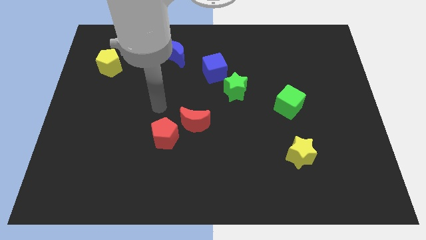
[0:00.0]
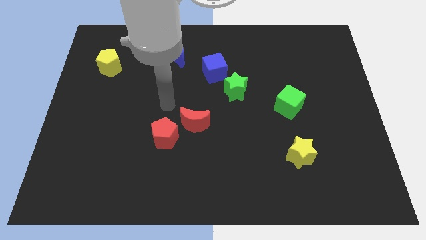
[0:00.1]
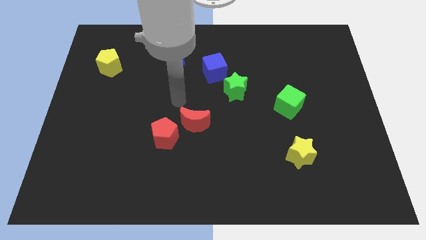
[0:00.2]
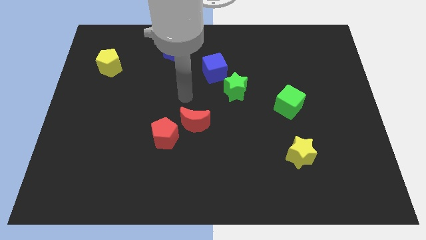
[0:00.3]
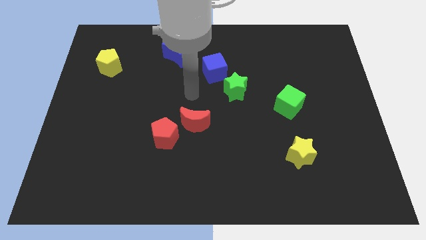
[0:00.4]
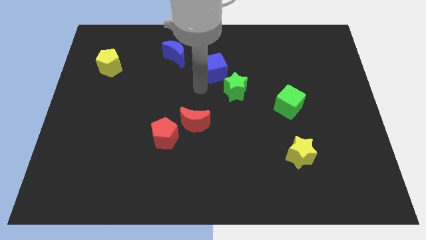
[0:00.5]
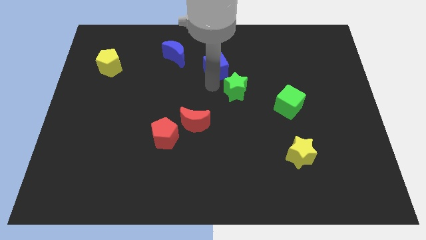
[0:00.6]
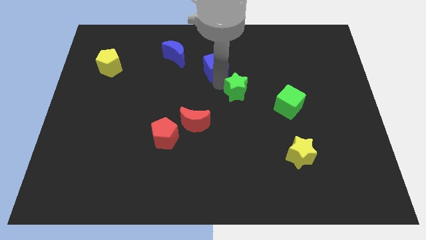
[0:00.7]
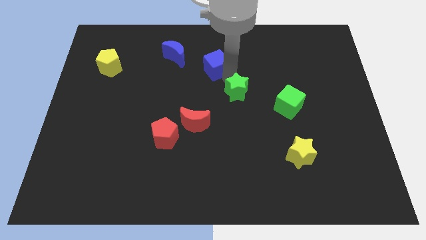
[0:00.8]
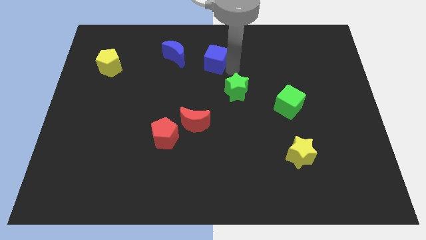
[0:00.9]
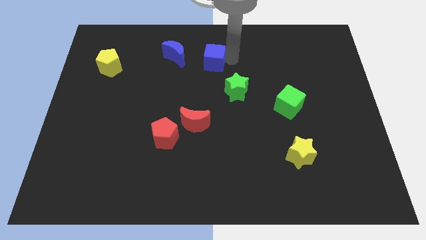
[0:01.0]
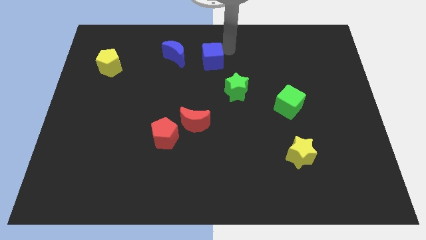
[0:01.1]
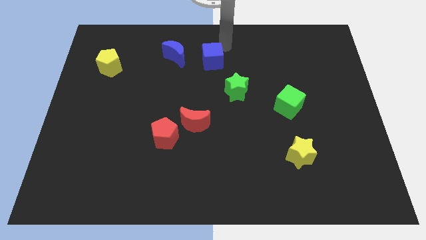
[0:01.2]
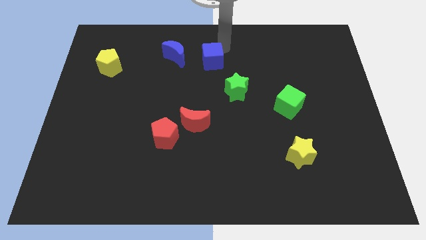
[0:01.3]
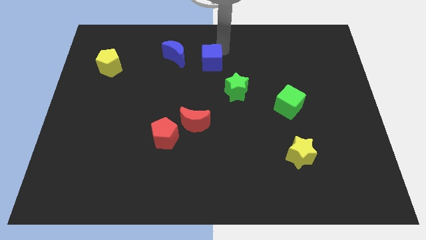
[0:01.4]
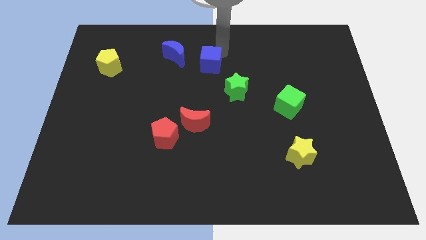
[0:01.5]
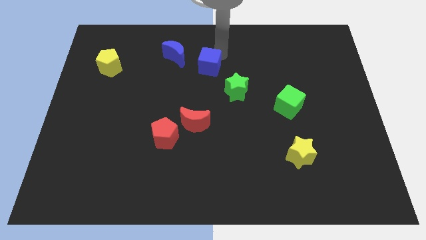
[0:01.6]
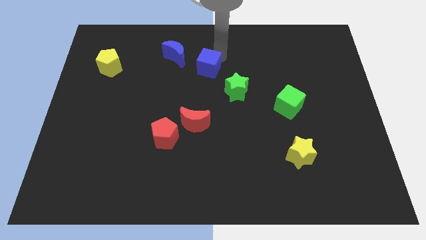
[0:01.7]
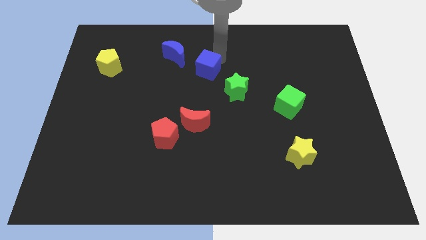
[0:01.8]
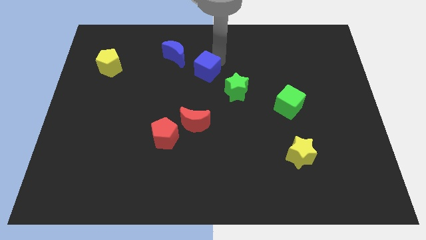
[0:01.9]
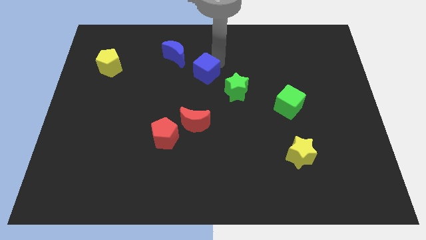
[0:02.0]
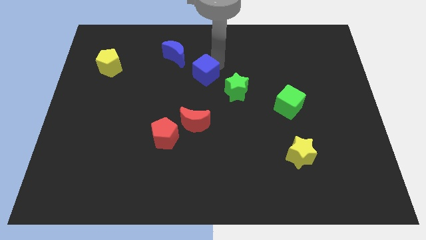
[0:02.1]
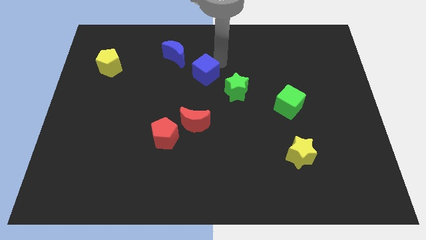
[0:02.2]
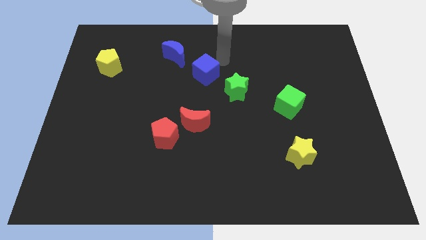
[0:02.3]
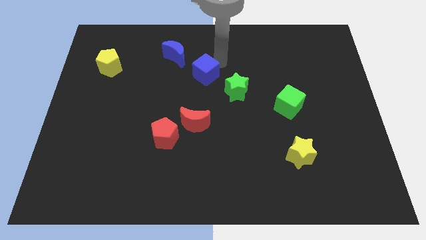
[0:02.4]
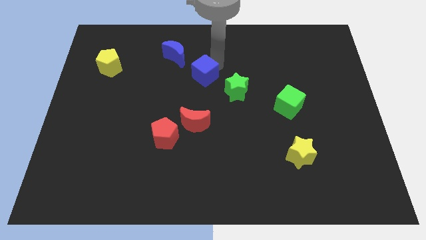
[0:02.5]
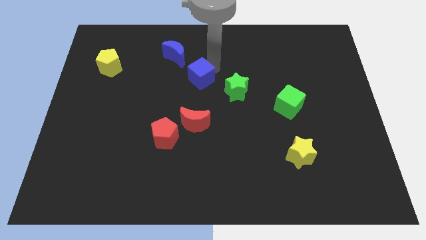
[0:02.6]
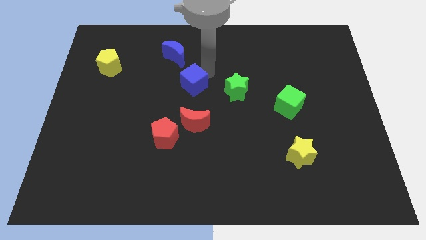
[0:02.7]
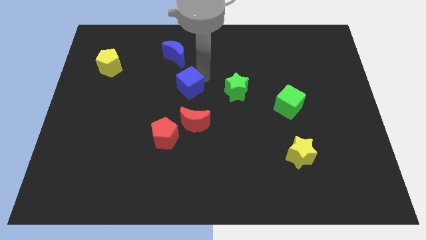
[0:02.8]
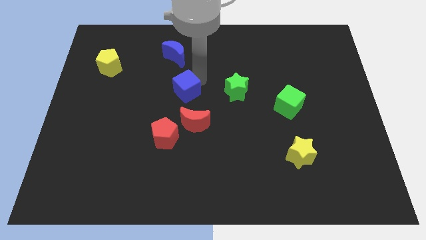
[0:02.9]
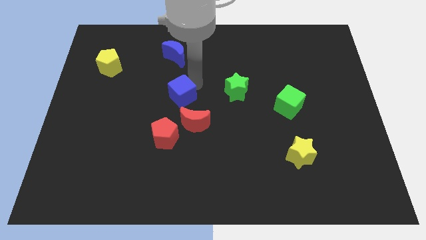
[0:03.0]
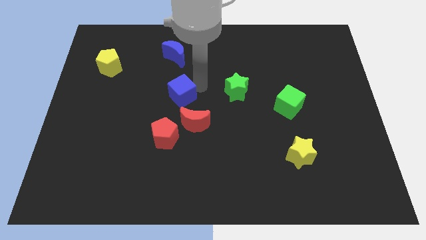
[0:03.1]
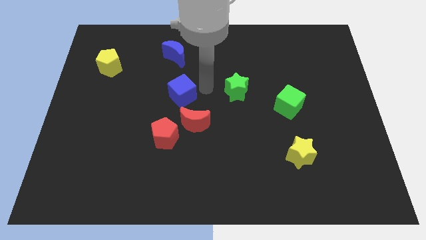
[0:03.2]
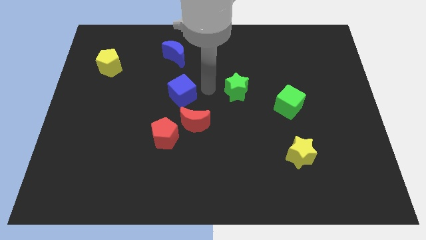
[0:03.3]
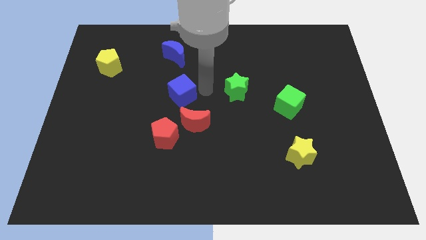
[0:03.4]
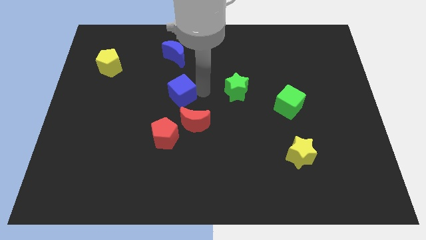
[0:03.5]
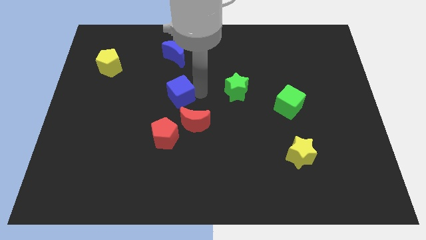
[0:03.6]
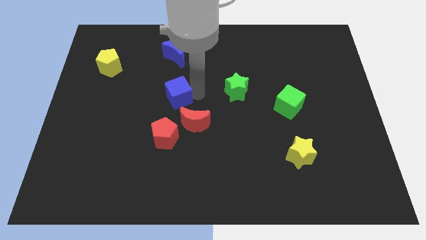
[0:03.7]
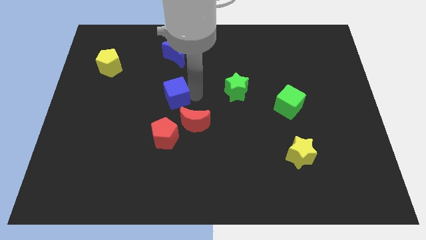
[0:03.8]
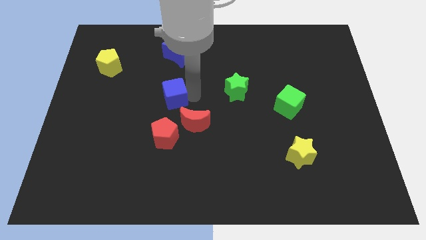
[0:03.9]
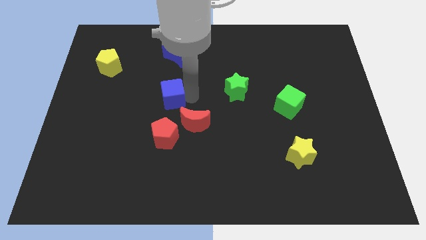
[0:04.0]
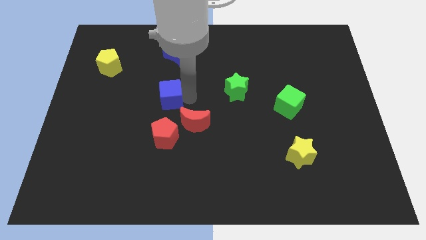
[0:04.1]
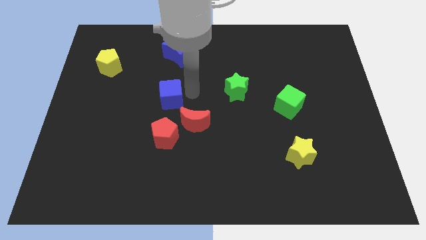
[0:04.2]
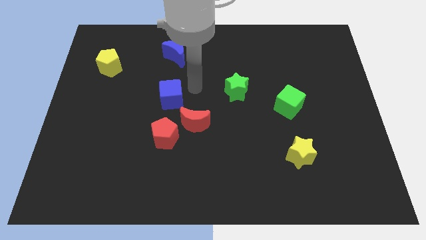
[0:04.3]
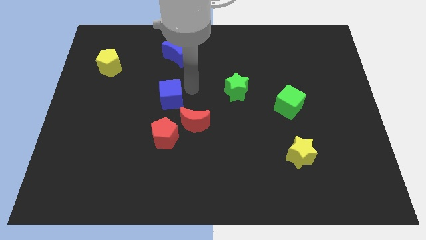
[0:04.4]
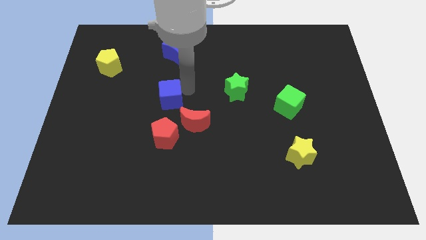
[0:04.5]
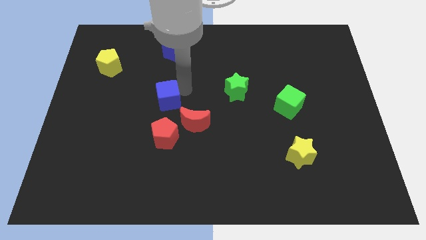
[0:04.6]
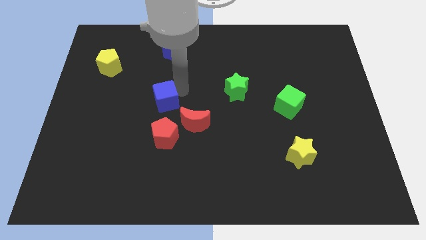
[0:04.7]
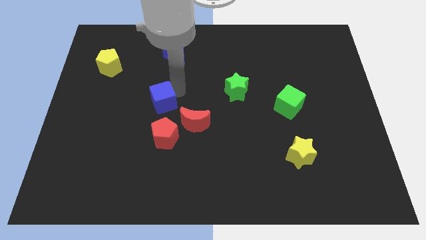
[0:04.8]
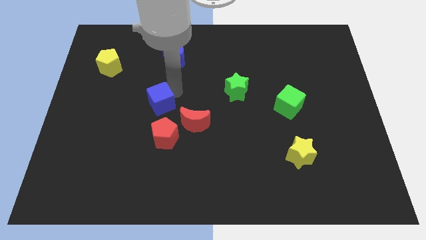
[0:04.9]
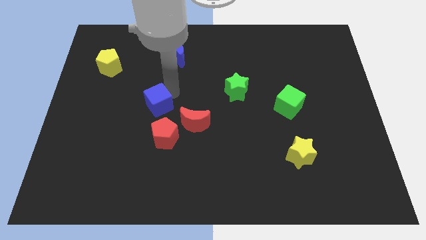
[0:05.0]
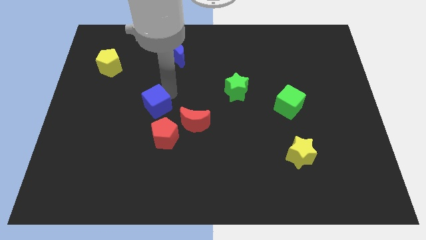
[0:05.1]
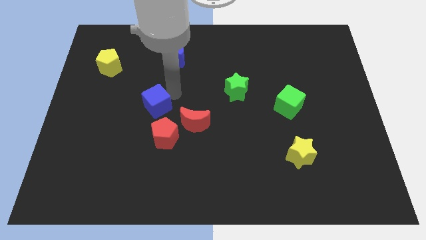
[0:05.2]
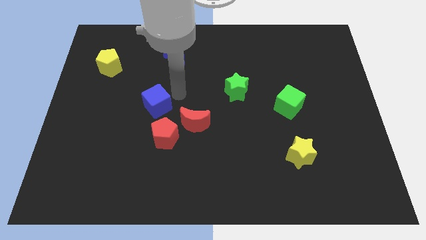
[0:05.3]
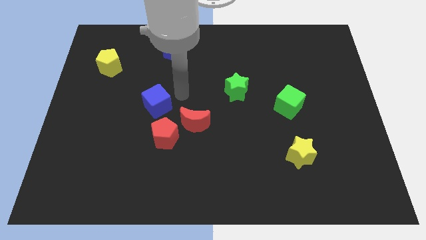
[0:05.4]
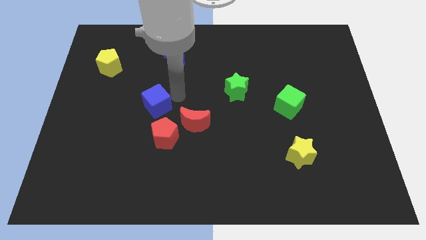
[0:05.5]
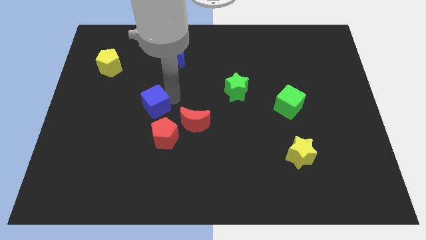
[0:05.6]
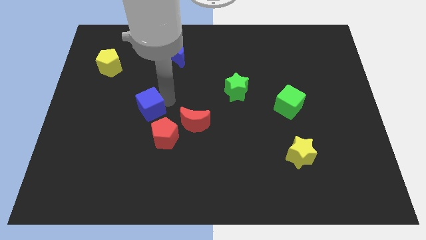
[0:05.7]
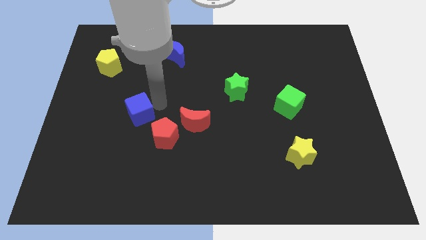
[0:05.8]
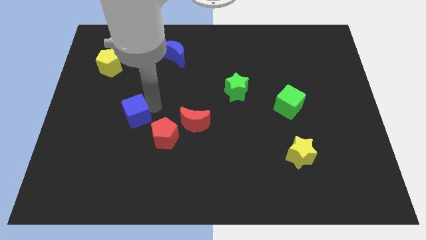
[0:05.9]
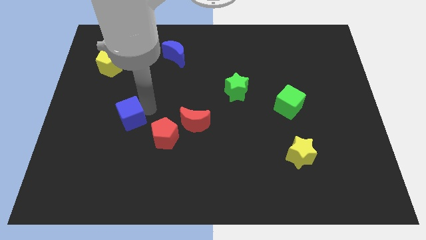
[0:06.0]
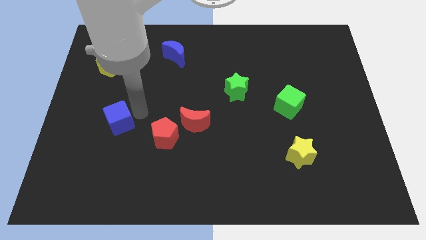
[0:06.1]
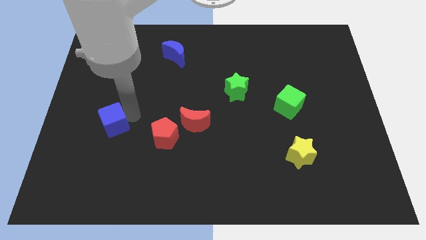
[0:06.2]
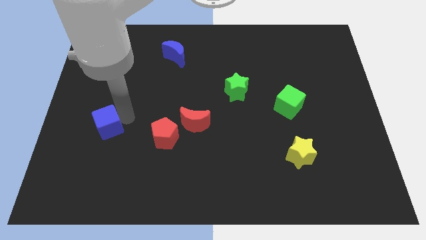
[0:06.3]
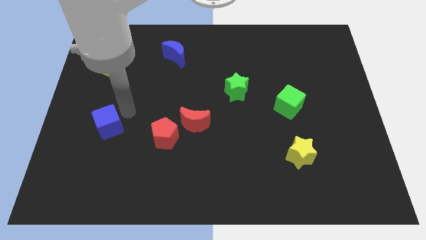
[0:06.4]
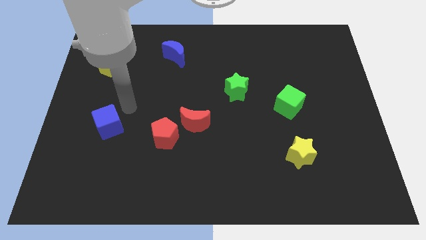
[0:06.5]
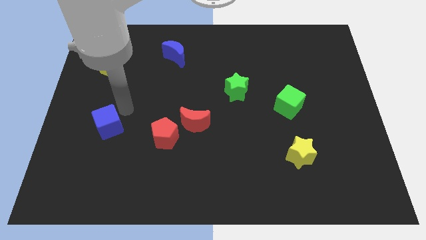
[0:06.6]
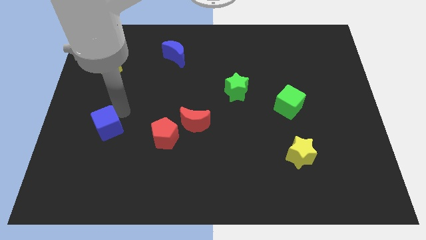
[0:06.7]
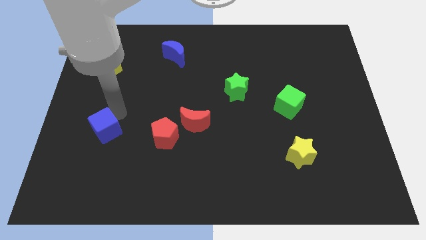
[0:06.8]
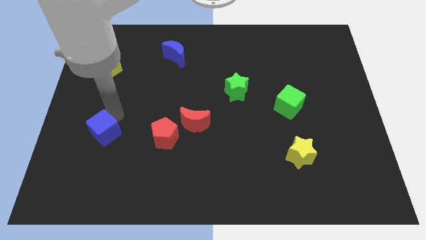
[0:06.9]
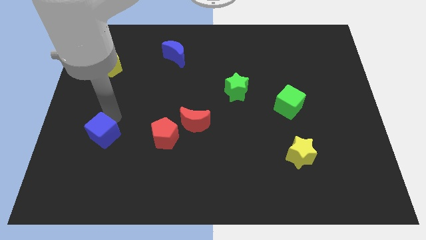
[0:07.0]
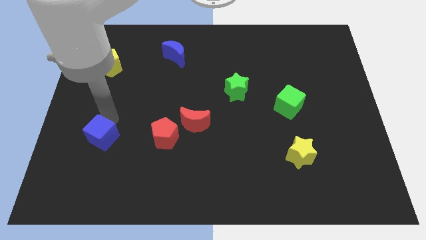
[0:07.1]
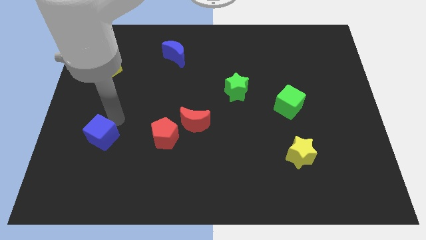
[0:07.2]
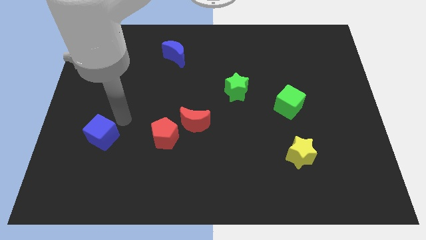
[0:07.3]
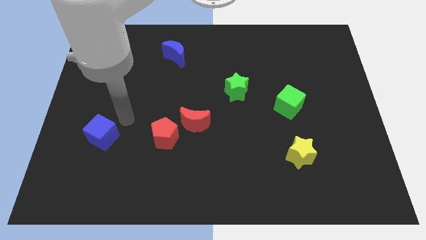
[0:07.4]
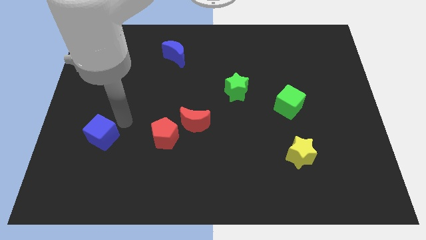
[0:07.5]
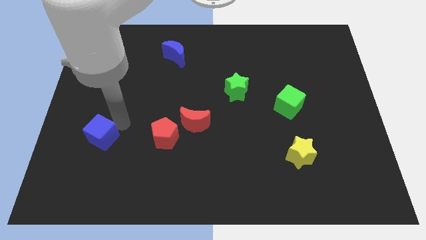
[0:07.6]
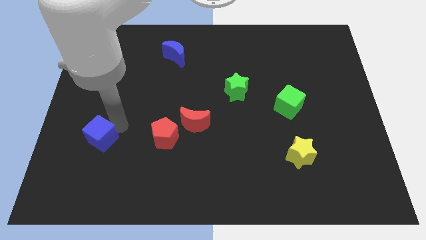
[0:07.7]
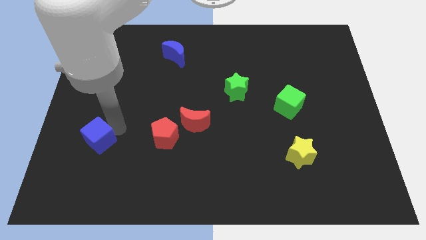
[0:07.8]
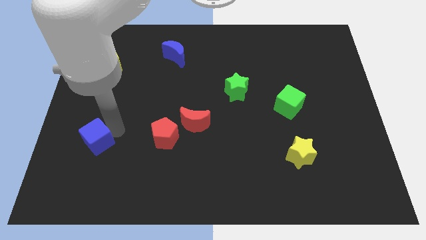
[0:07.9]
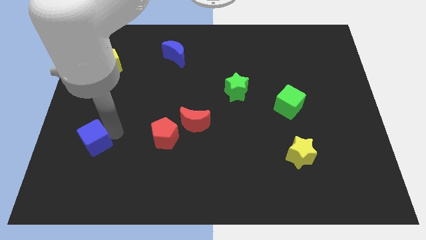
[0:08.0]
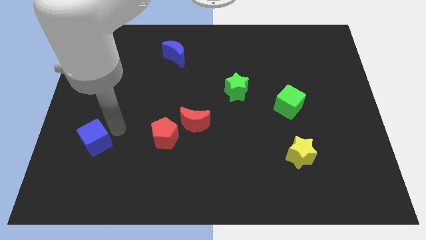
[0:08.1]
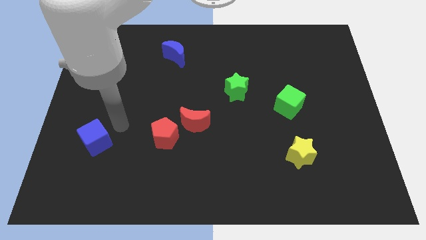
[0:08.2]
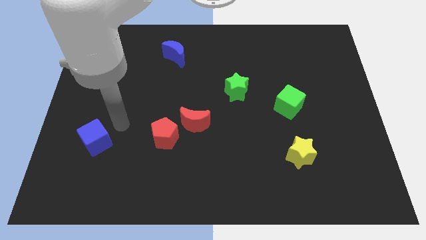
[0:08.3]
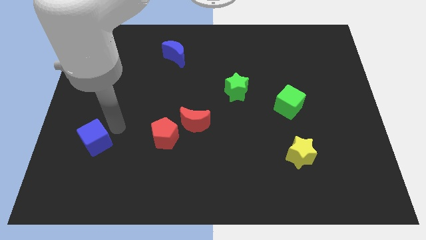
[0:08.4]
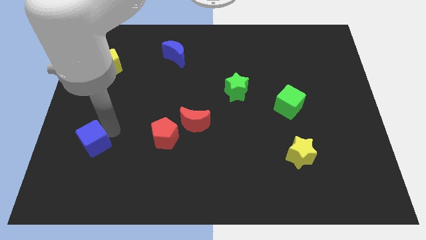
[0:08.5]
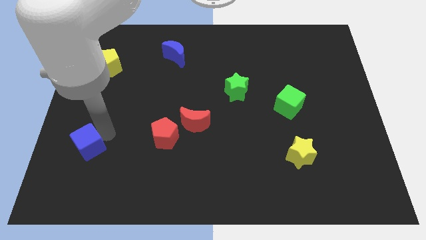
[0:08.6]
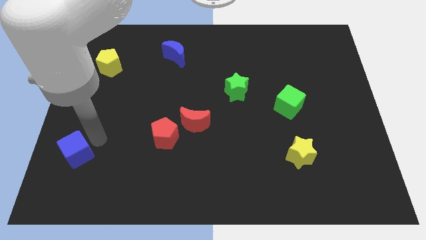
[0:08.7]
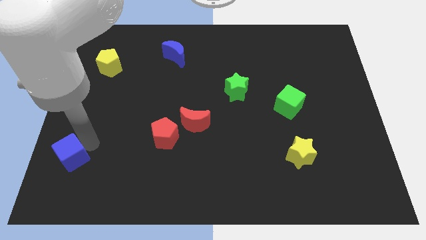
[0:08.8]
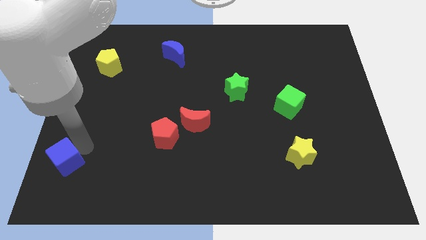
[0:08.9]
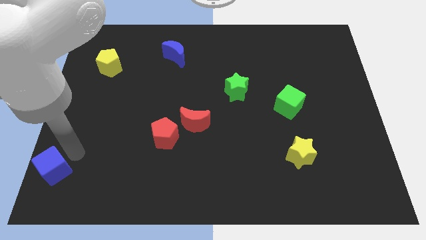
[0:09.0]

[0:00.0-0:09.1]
push the blue cube to the bottom left of the board
